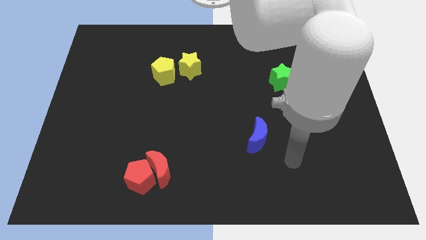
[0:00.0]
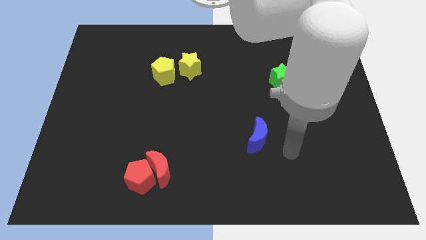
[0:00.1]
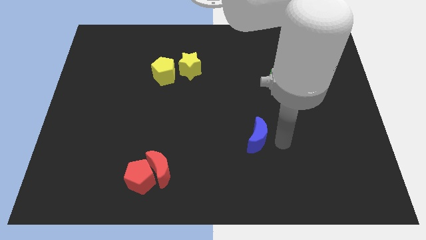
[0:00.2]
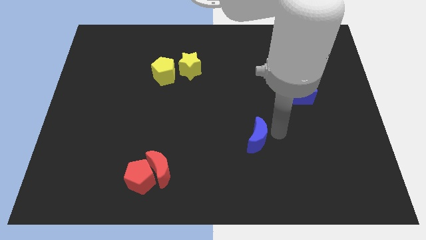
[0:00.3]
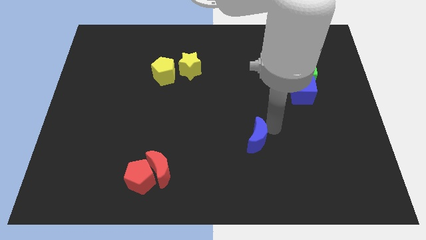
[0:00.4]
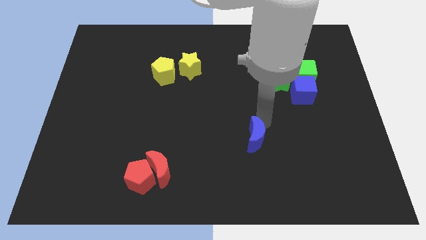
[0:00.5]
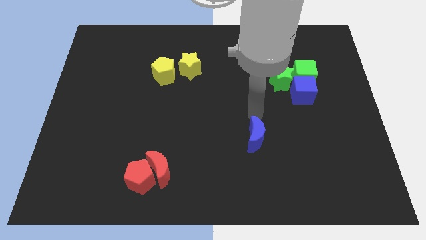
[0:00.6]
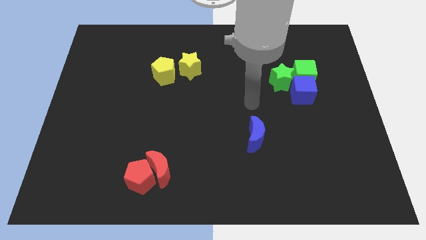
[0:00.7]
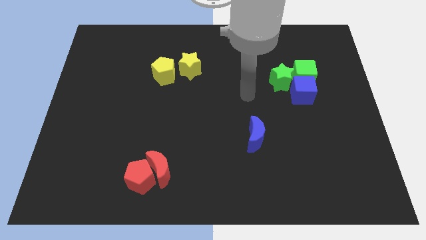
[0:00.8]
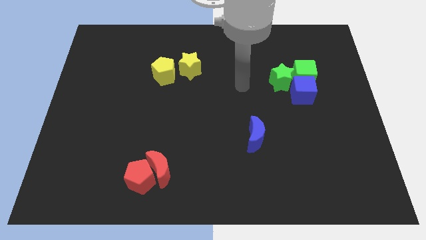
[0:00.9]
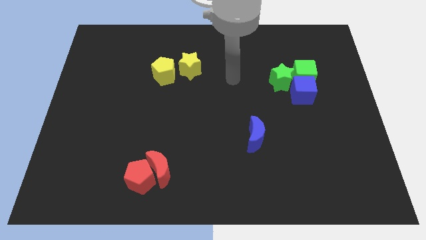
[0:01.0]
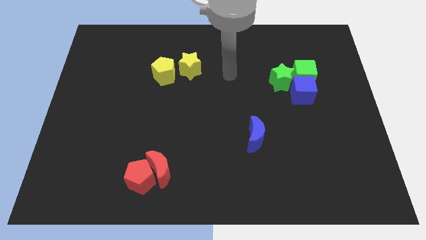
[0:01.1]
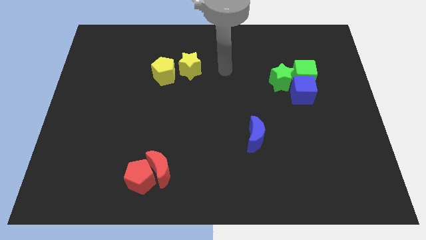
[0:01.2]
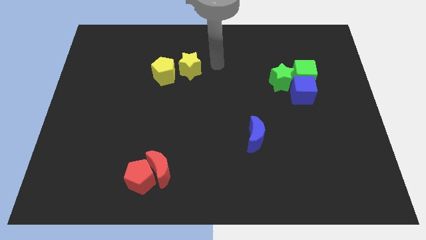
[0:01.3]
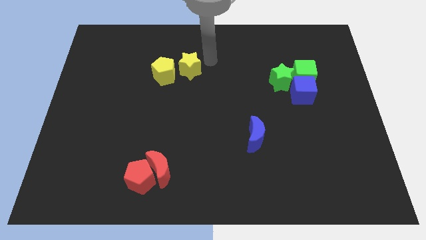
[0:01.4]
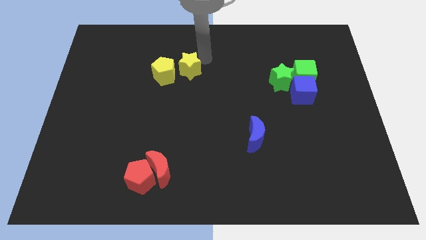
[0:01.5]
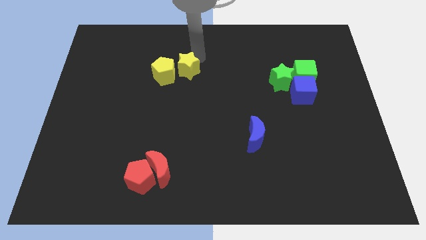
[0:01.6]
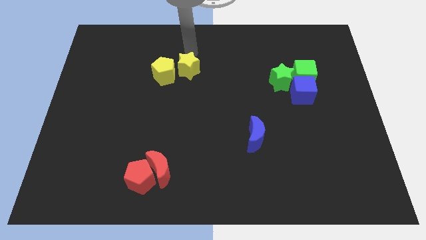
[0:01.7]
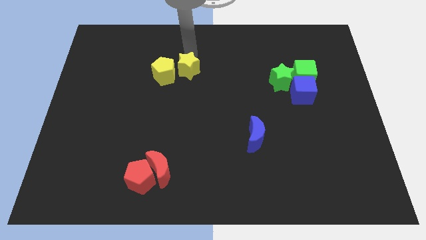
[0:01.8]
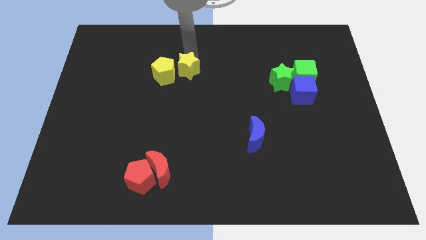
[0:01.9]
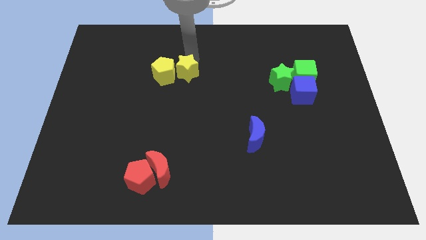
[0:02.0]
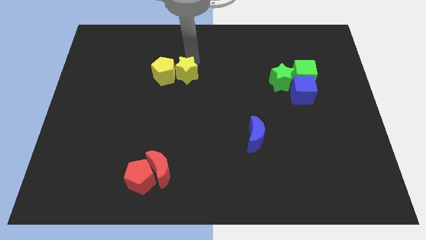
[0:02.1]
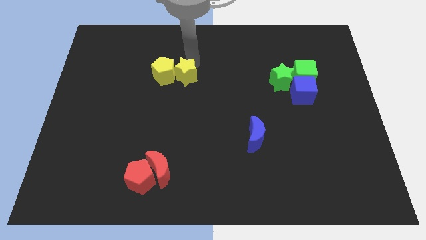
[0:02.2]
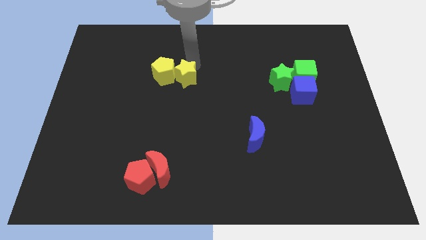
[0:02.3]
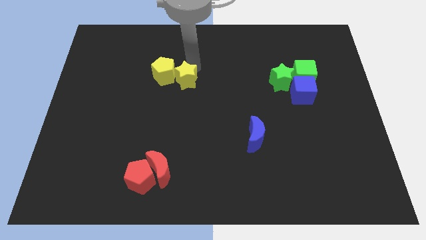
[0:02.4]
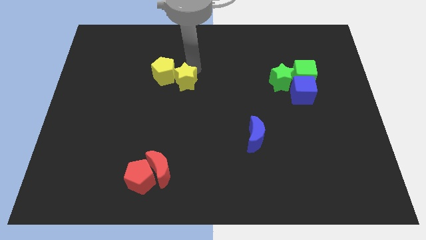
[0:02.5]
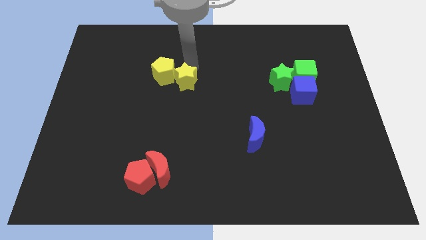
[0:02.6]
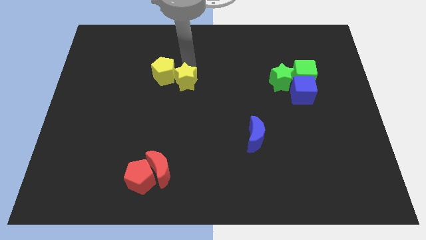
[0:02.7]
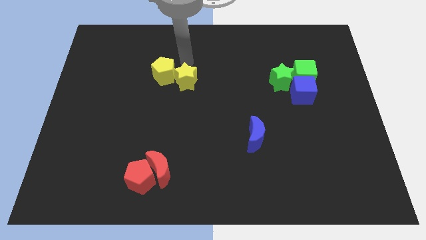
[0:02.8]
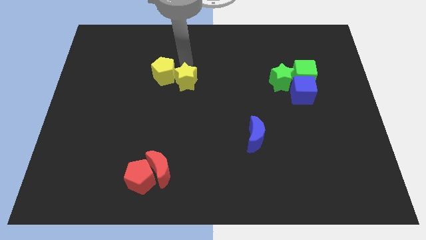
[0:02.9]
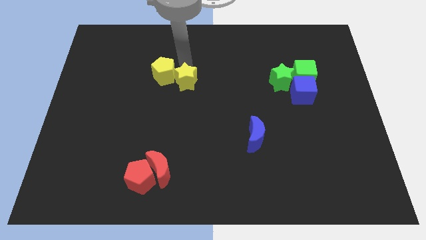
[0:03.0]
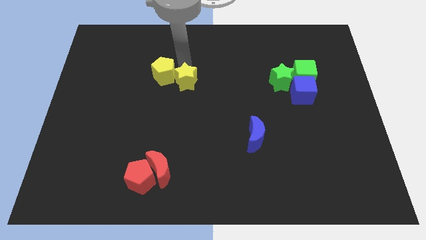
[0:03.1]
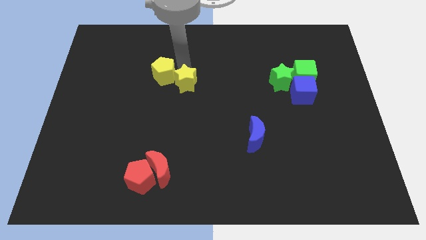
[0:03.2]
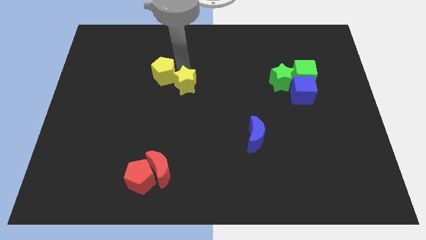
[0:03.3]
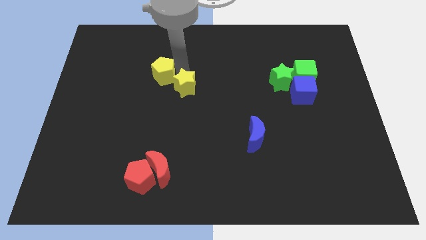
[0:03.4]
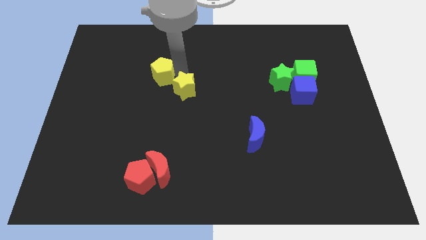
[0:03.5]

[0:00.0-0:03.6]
push the yellow star downwards a little bit

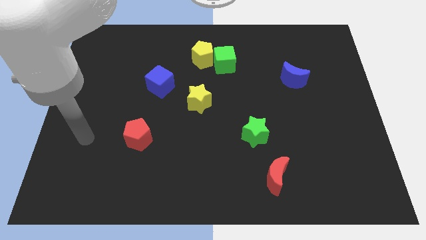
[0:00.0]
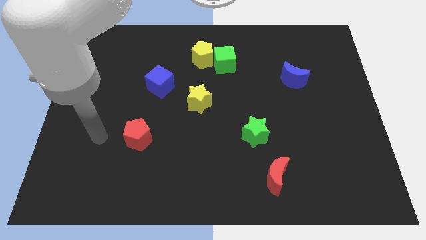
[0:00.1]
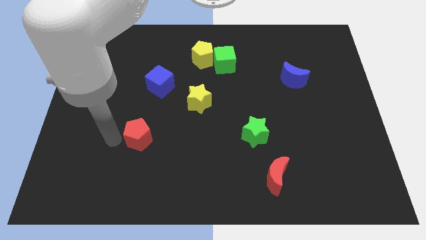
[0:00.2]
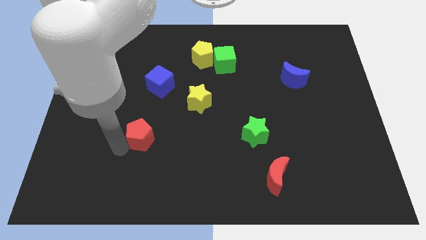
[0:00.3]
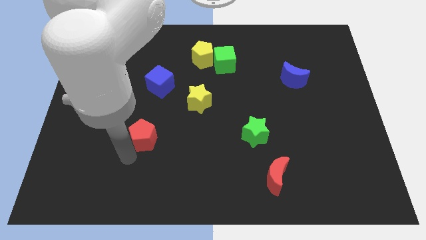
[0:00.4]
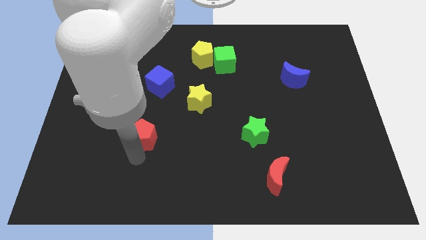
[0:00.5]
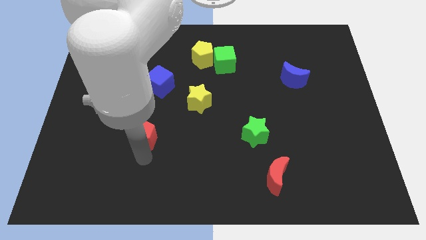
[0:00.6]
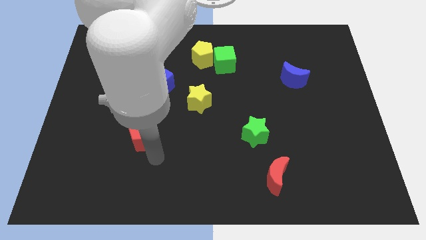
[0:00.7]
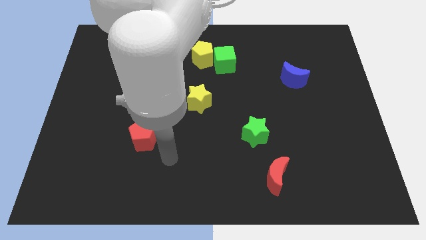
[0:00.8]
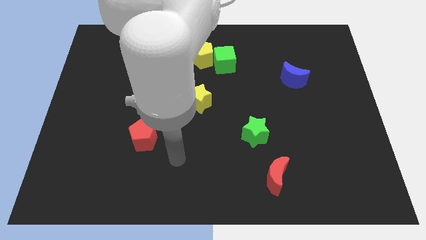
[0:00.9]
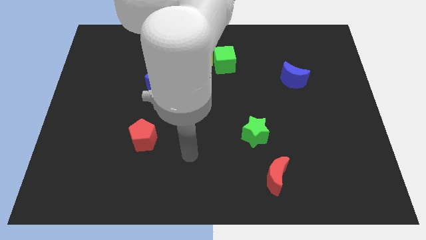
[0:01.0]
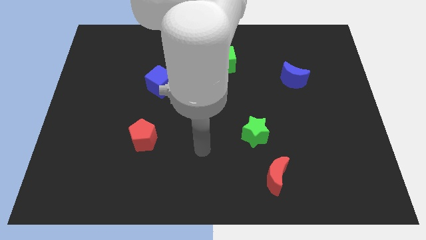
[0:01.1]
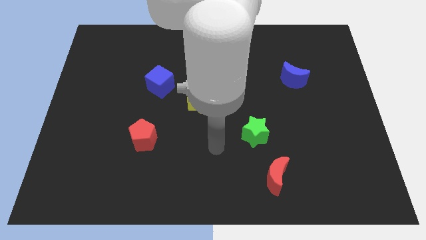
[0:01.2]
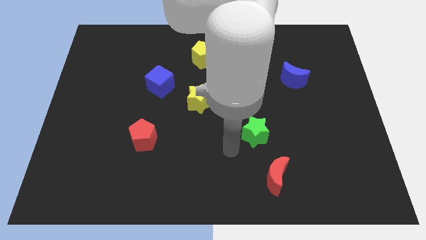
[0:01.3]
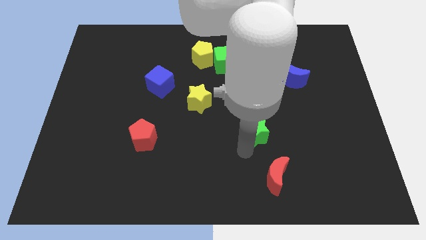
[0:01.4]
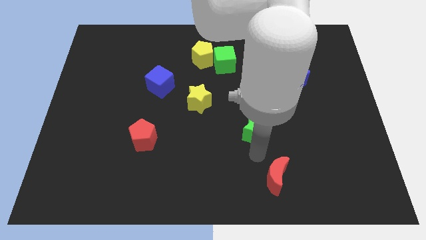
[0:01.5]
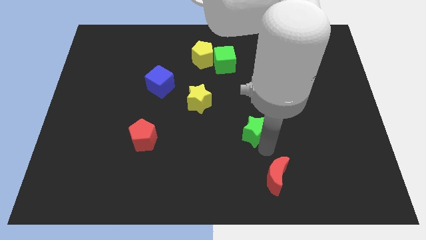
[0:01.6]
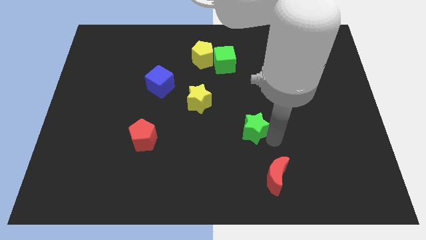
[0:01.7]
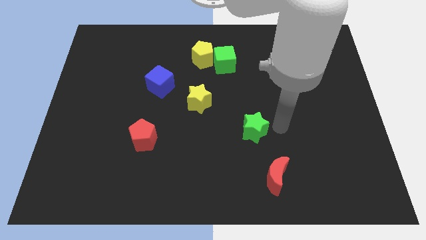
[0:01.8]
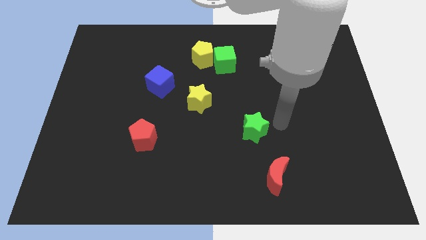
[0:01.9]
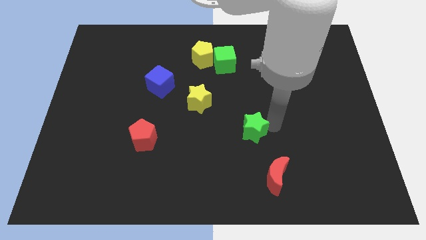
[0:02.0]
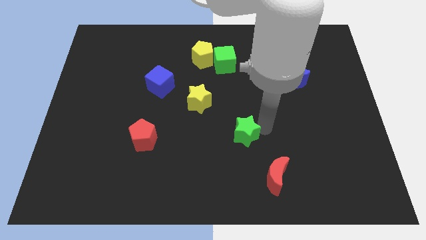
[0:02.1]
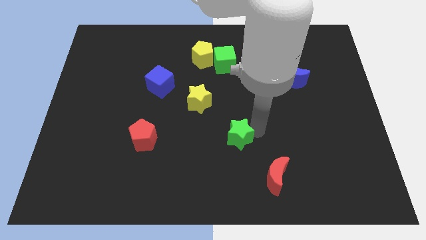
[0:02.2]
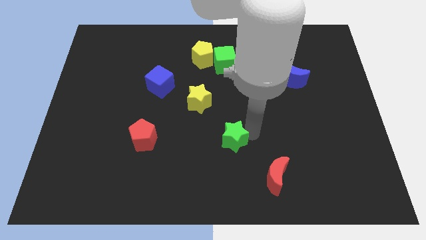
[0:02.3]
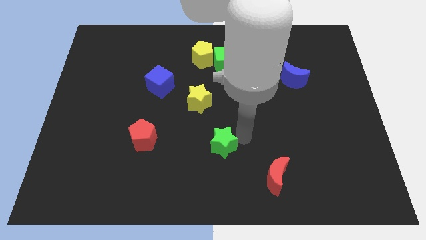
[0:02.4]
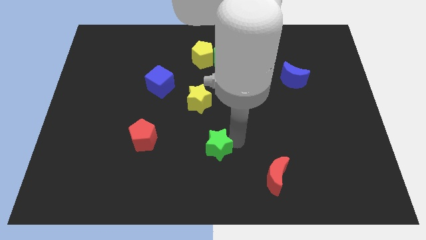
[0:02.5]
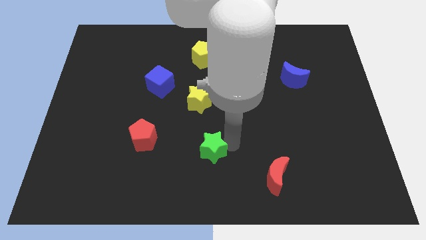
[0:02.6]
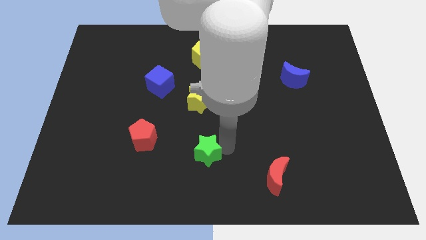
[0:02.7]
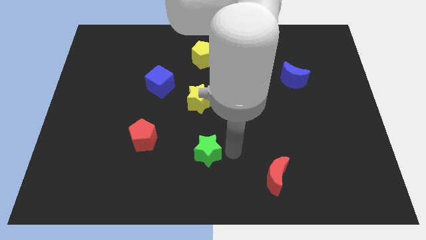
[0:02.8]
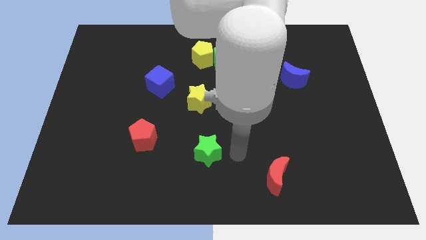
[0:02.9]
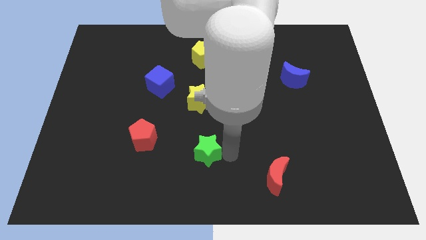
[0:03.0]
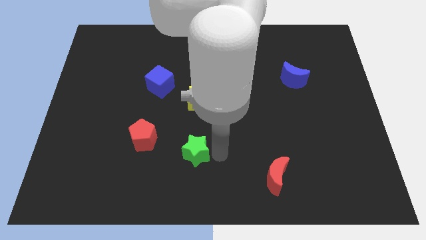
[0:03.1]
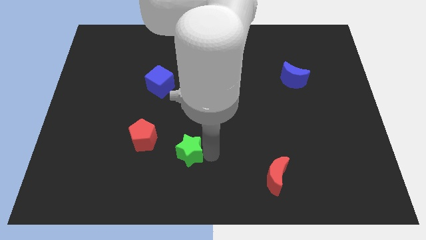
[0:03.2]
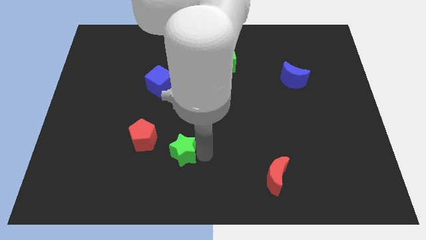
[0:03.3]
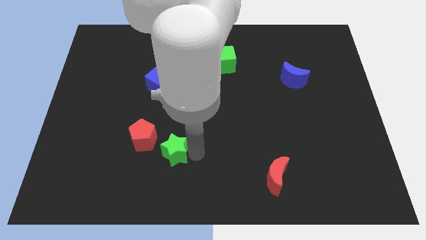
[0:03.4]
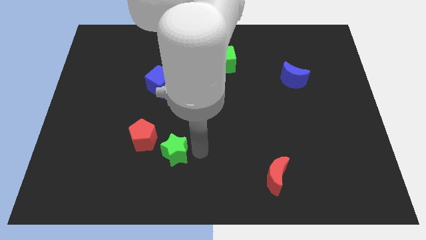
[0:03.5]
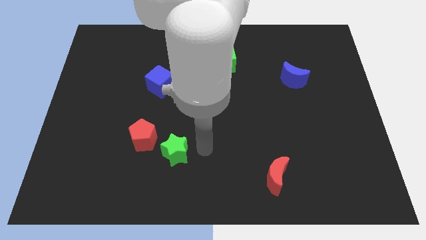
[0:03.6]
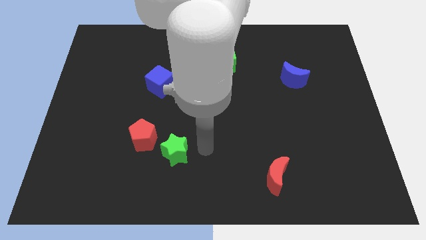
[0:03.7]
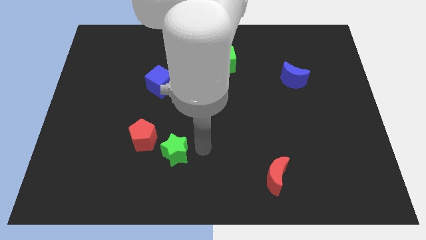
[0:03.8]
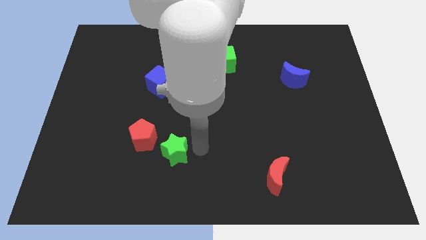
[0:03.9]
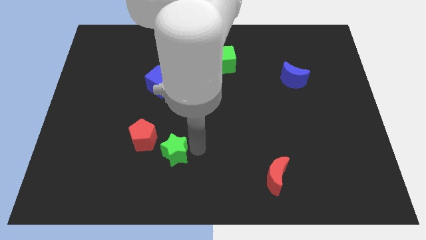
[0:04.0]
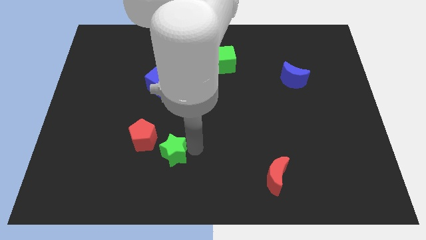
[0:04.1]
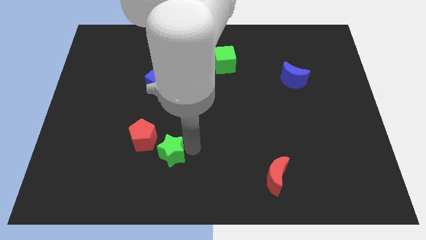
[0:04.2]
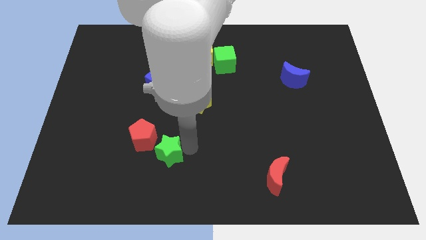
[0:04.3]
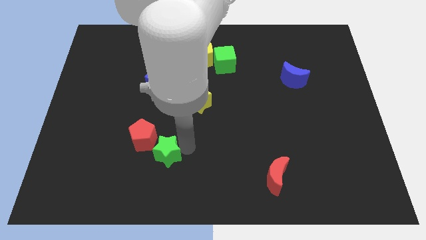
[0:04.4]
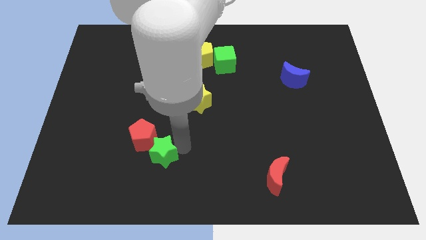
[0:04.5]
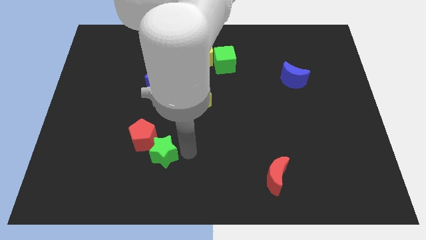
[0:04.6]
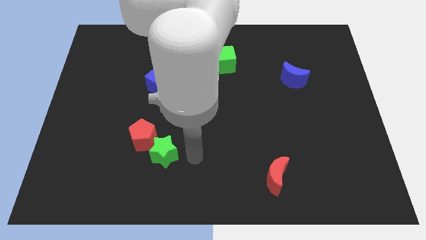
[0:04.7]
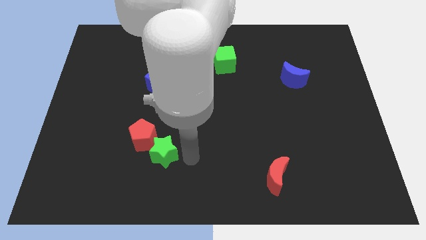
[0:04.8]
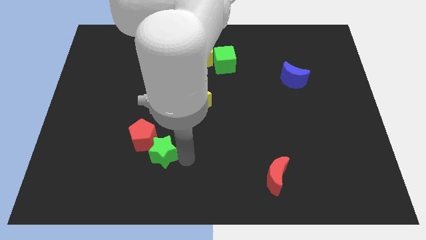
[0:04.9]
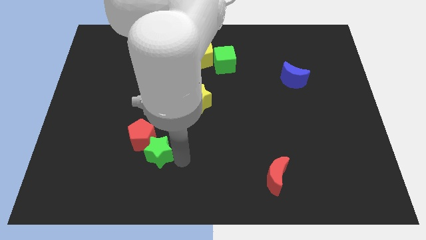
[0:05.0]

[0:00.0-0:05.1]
push the green star to the left
